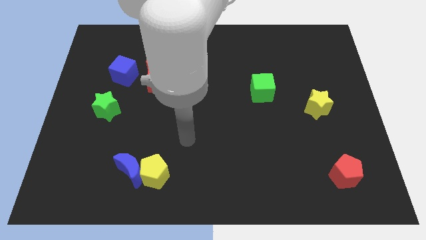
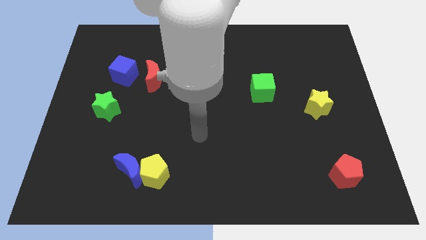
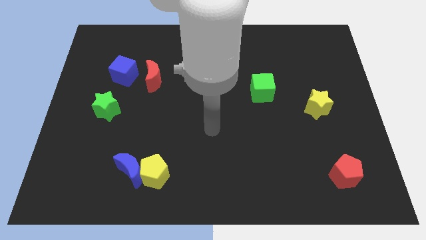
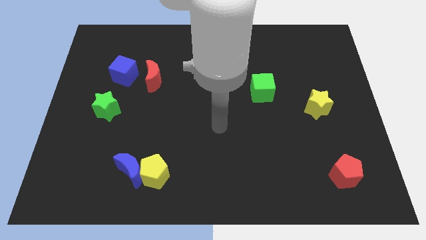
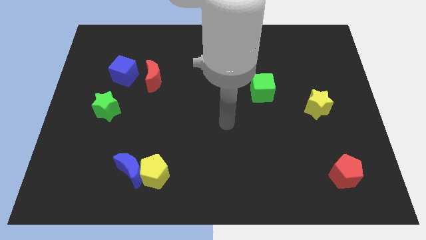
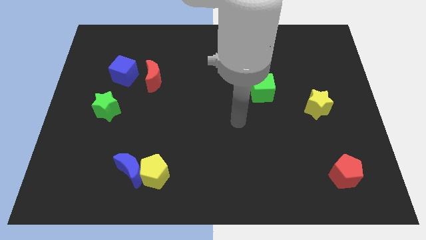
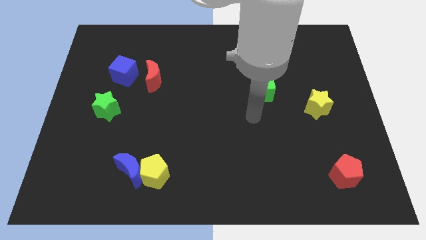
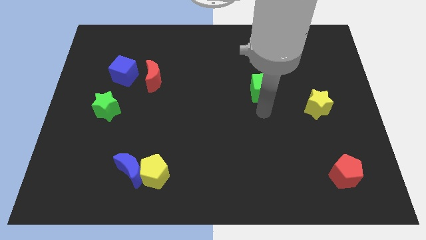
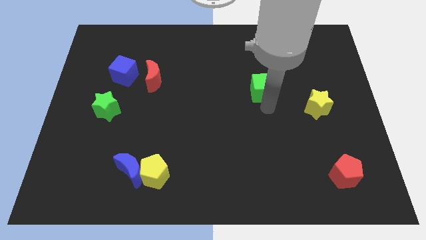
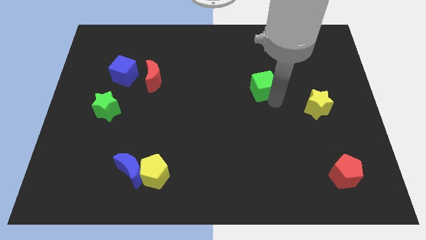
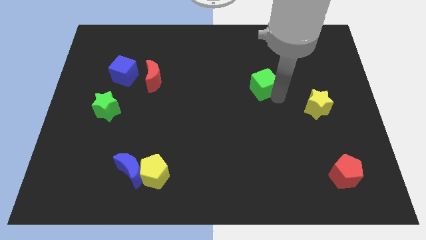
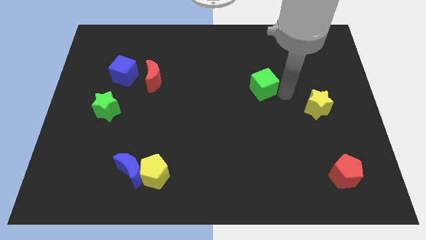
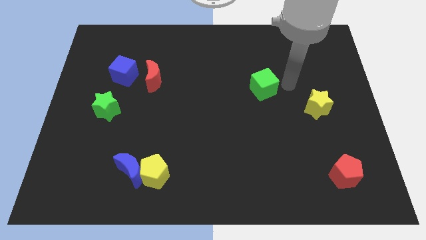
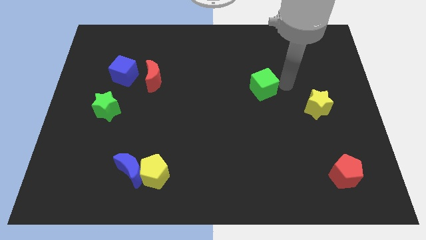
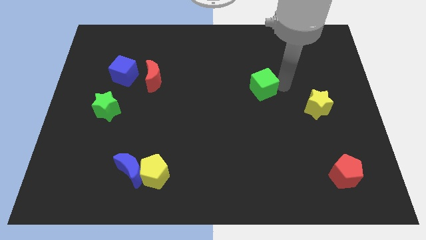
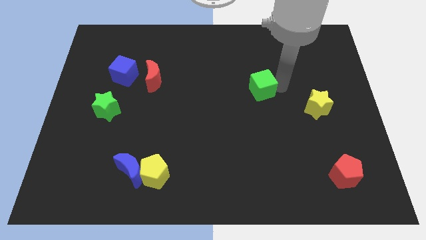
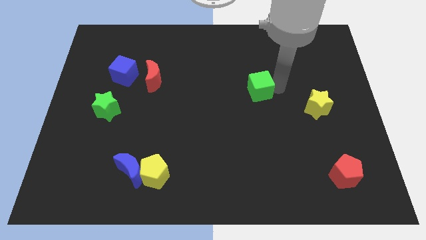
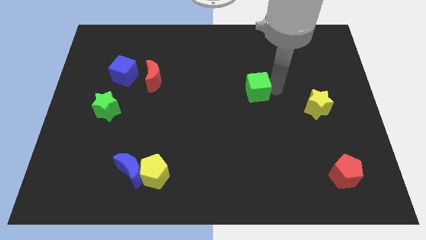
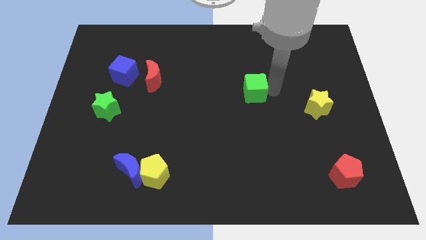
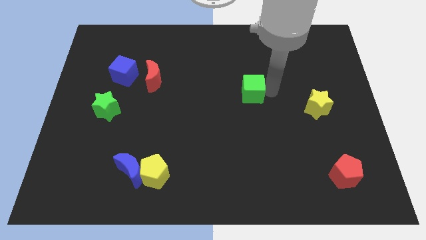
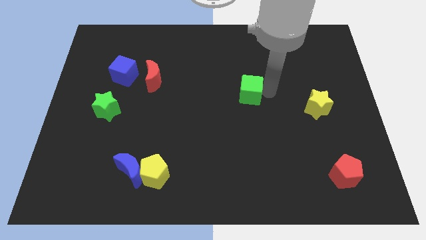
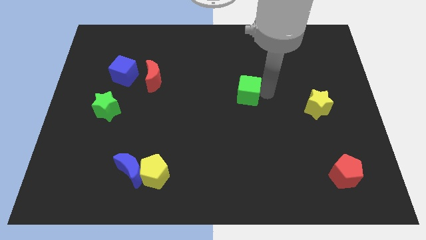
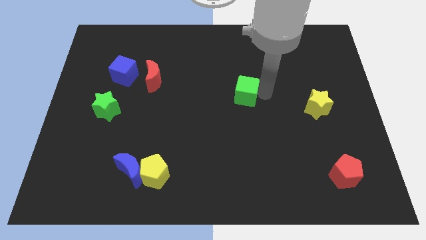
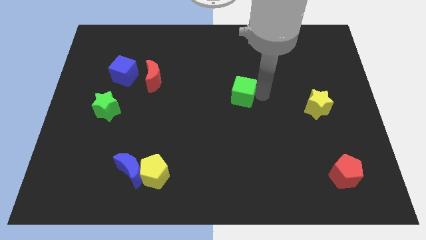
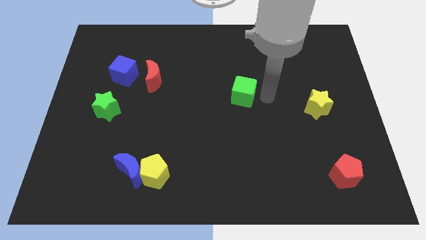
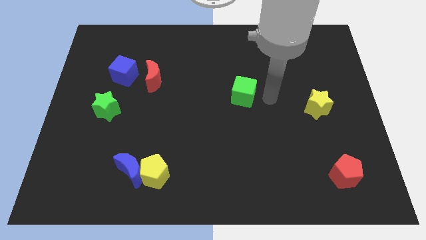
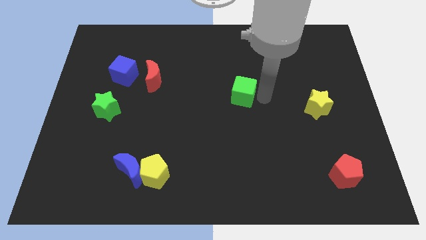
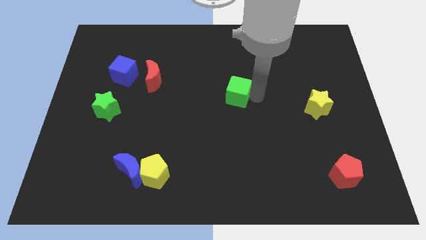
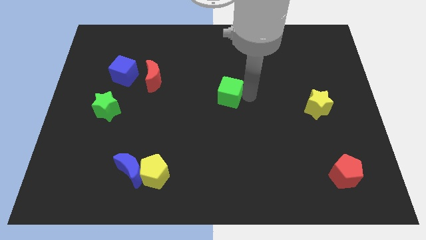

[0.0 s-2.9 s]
slide the green cube left slightly

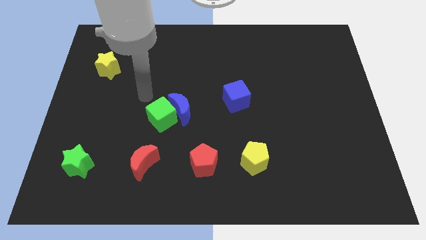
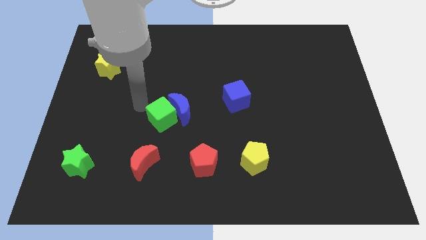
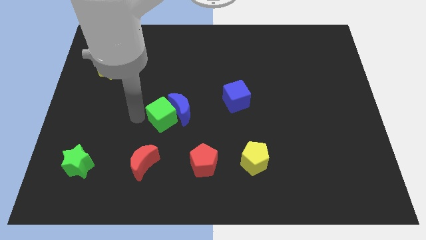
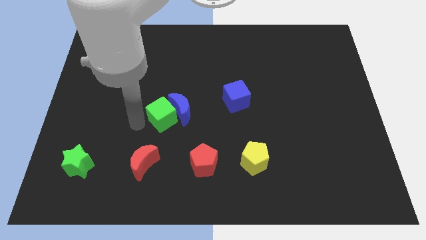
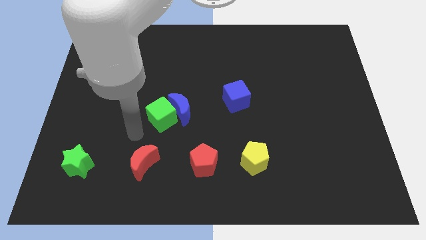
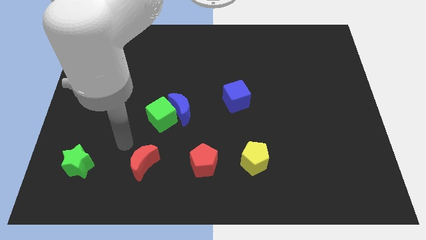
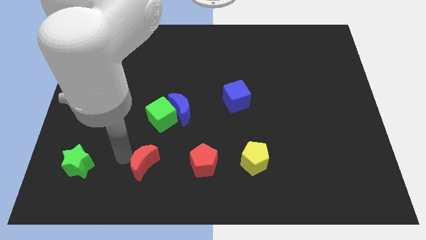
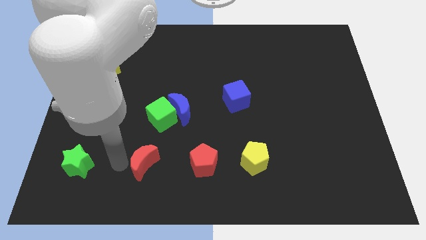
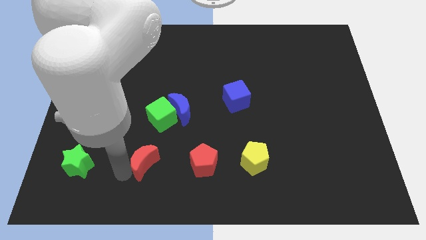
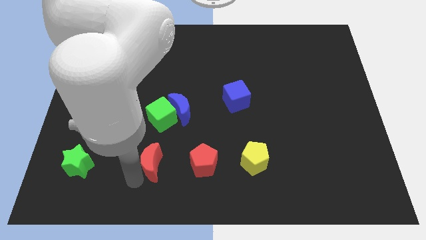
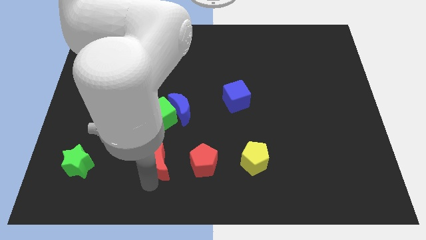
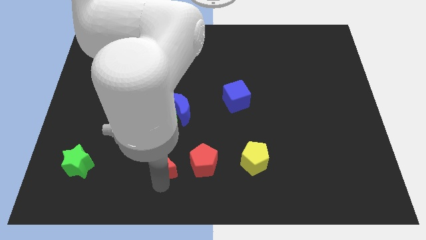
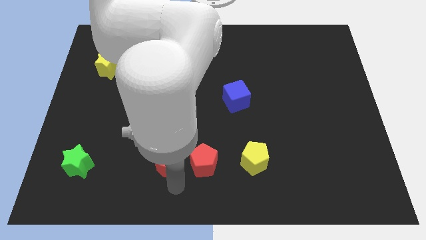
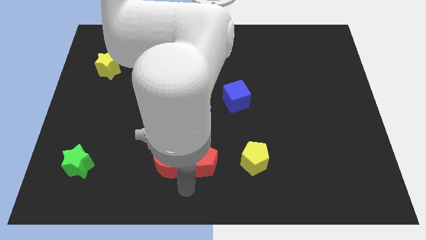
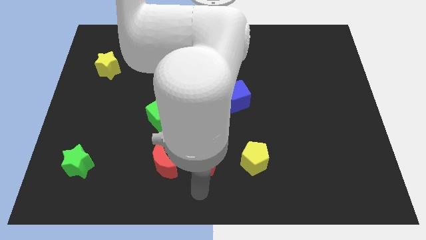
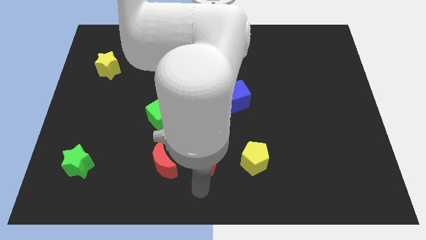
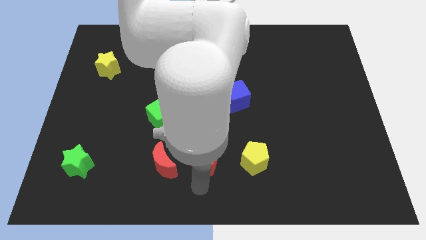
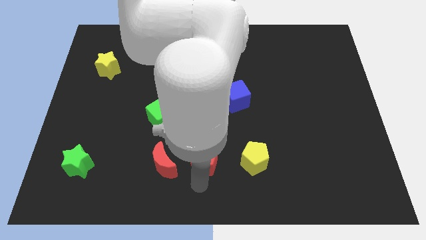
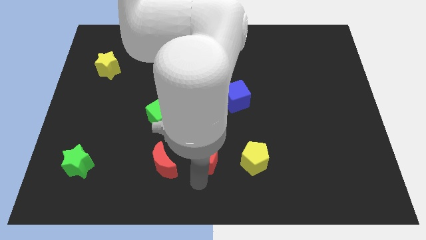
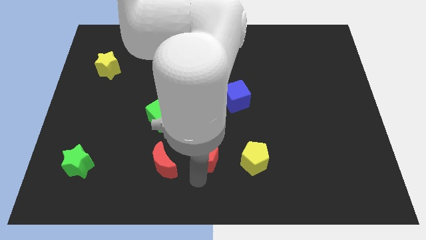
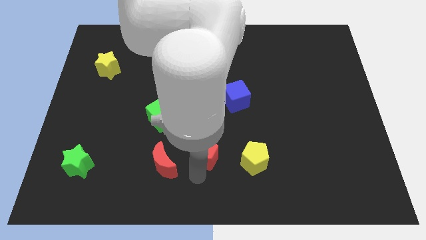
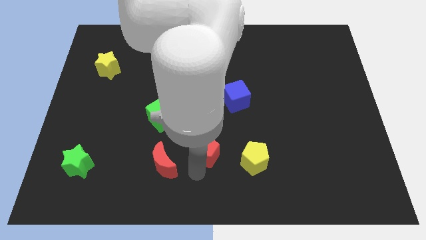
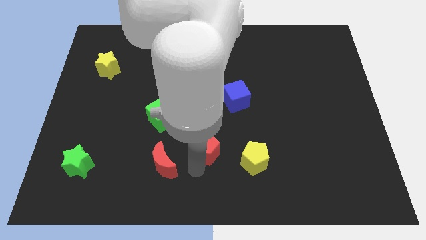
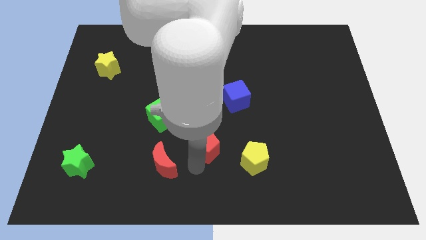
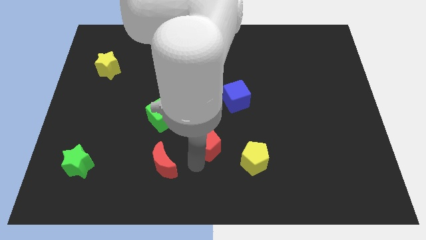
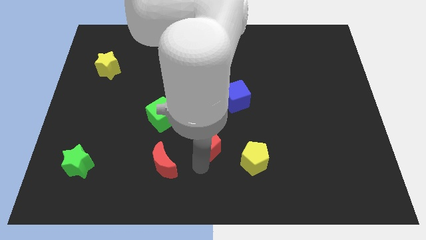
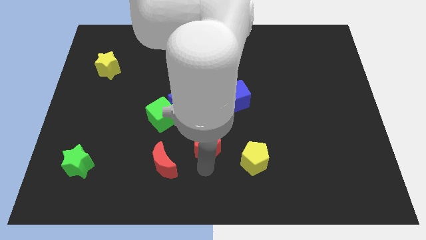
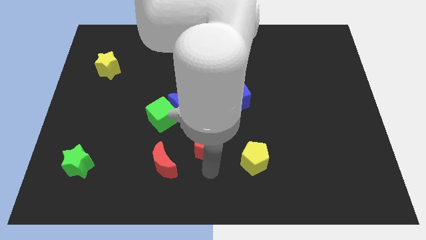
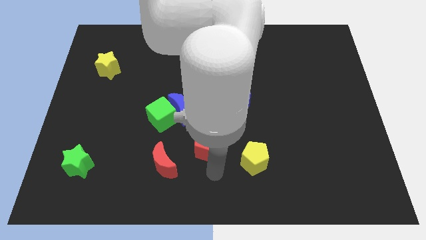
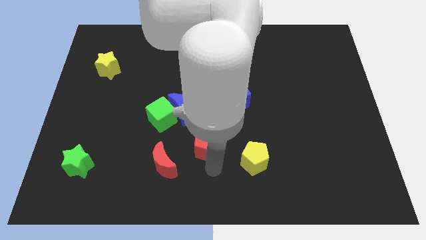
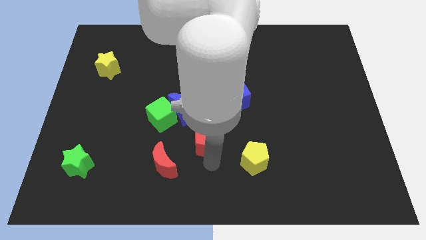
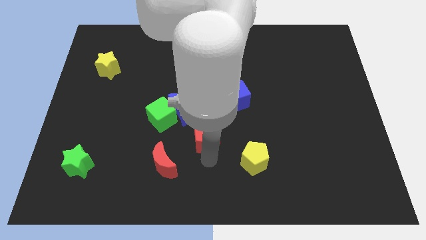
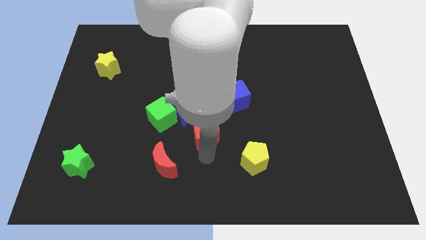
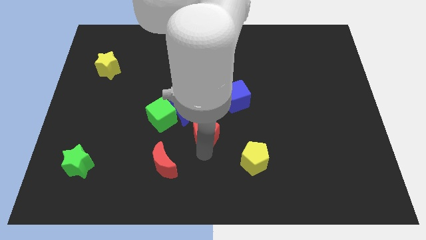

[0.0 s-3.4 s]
move the red pentagon upwards a little

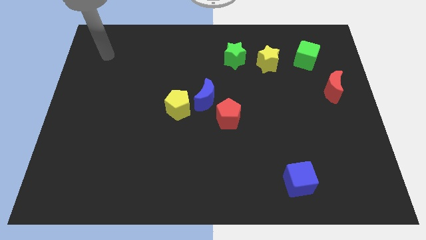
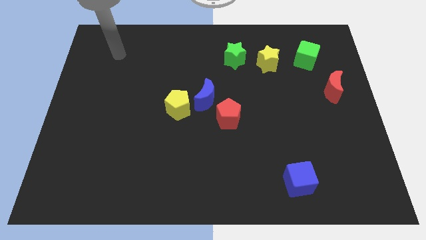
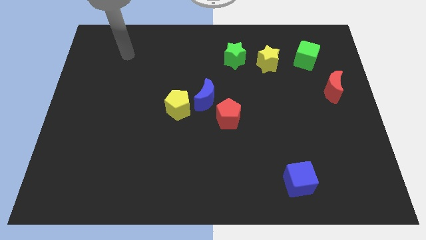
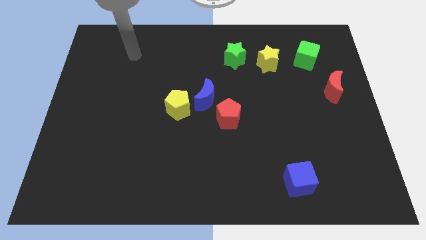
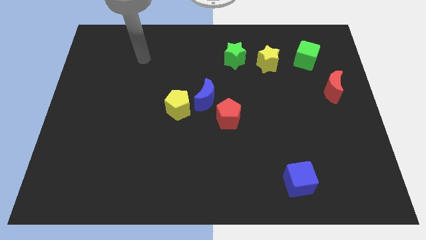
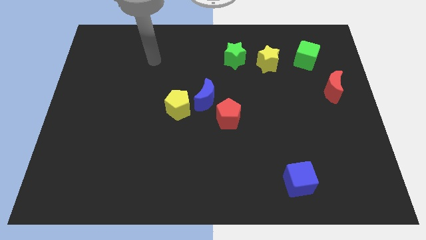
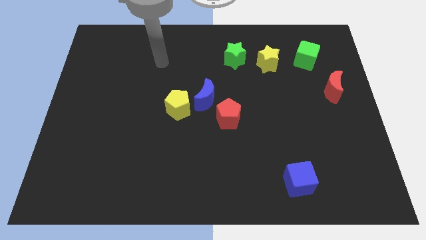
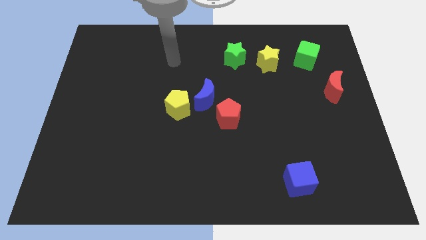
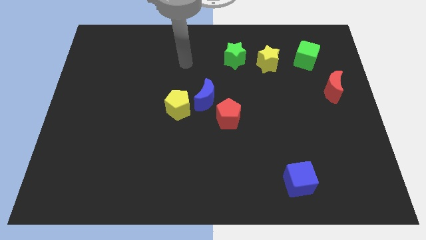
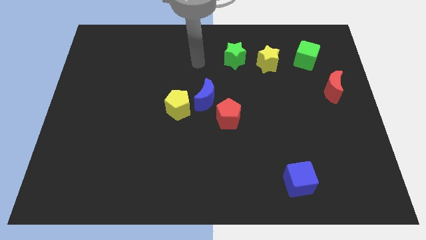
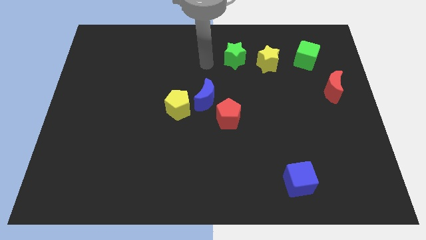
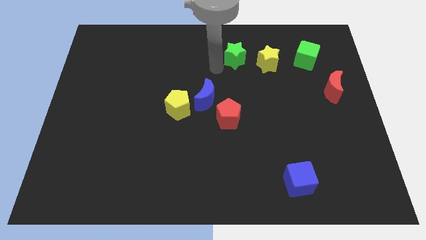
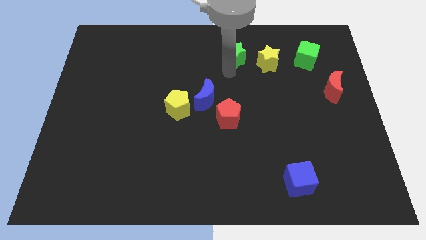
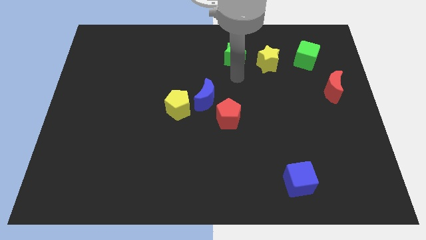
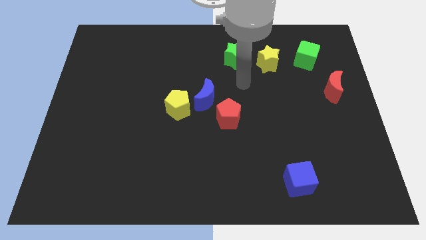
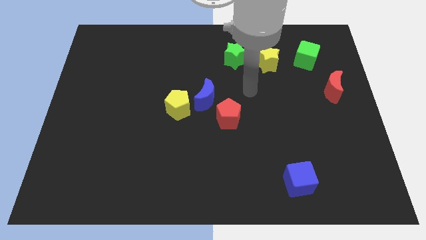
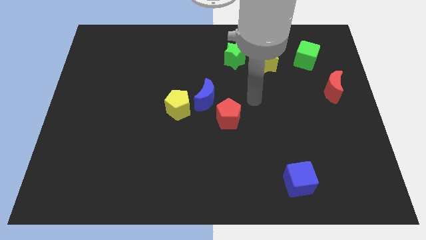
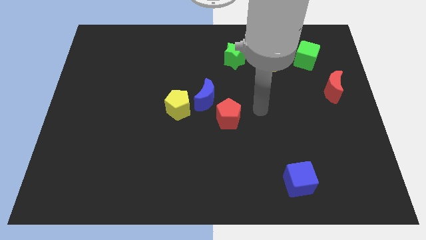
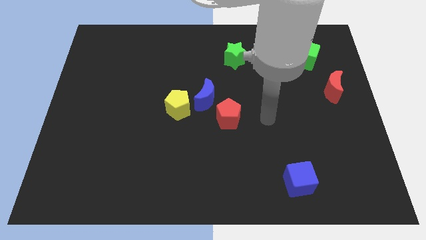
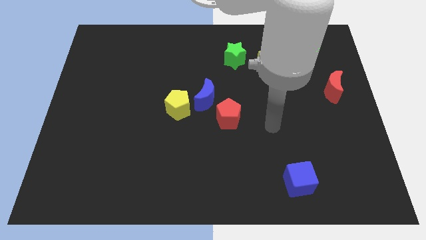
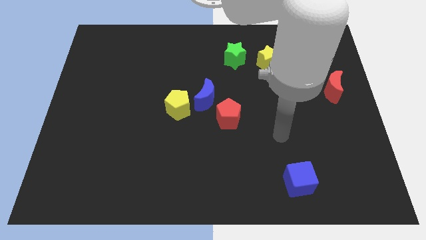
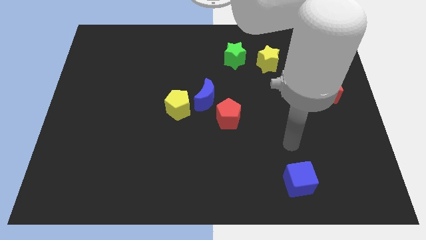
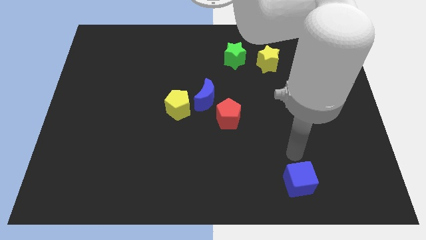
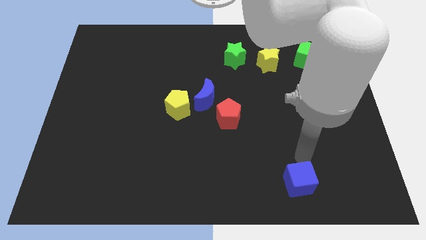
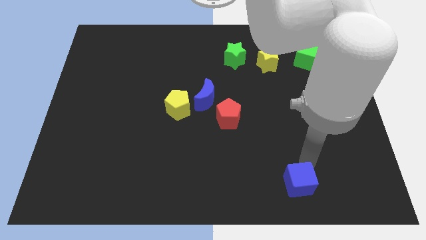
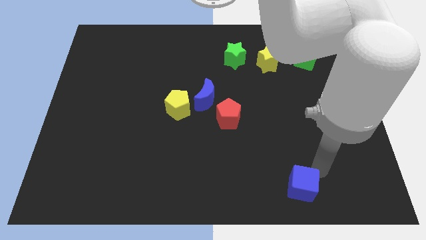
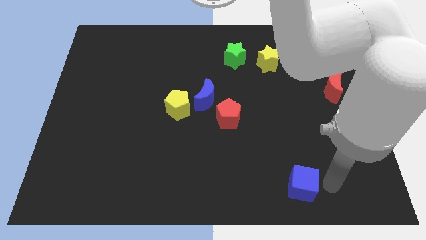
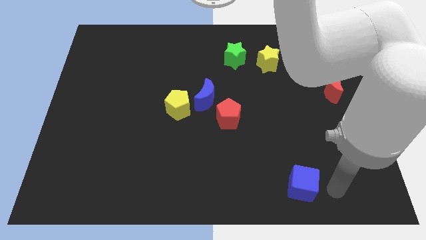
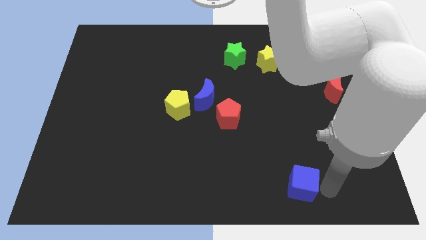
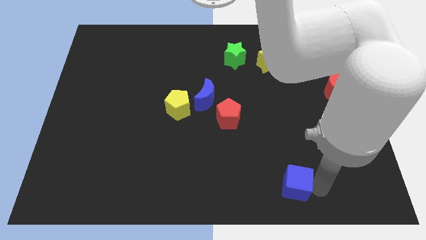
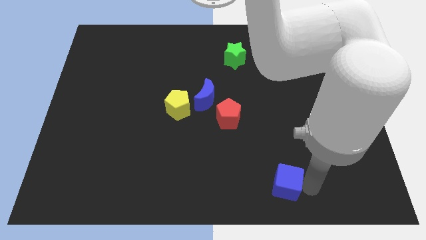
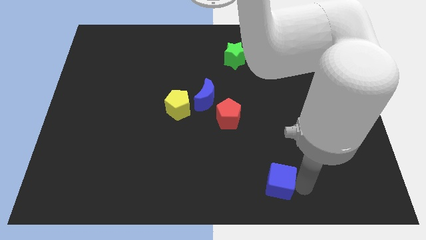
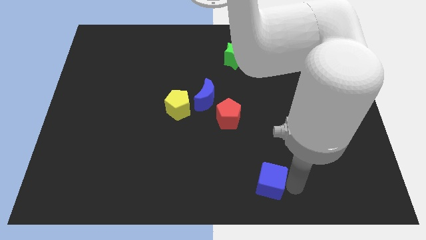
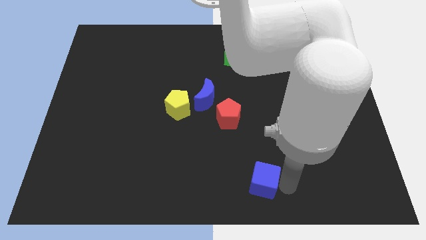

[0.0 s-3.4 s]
slightly push the blue cube to the left
